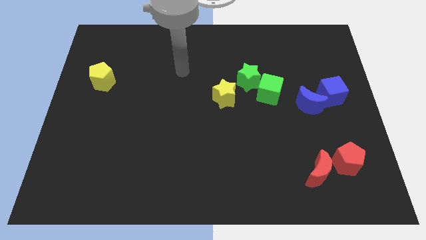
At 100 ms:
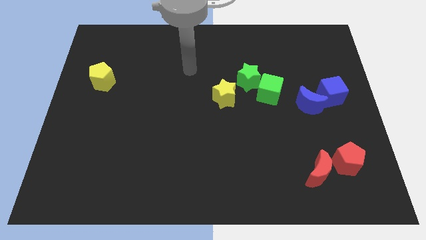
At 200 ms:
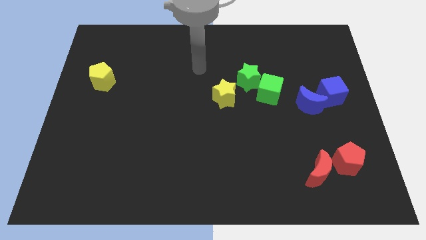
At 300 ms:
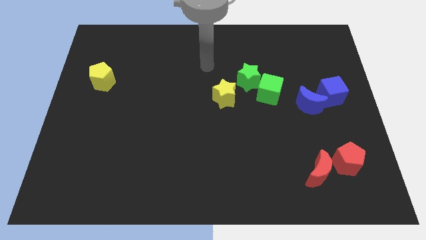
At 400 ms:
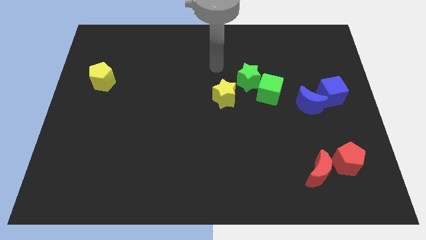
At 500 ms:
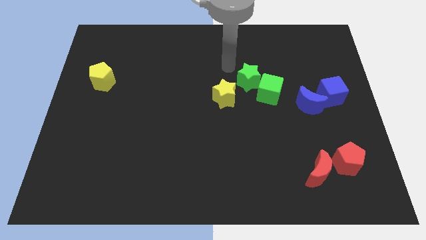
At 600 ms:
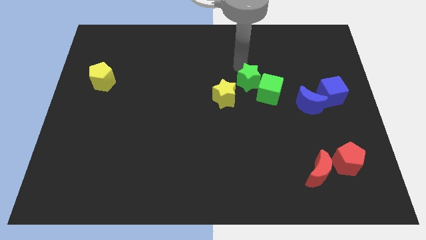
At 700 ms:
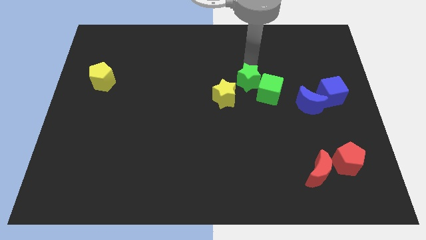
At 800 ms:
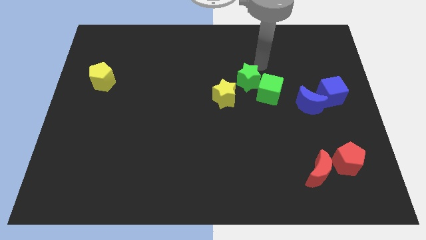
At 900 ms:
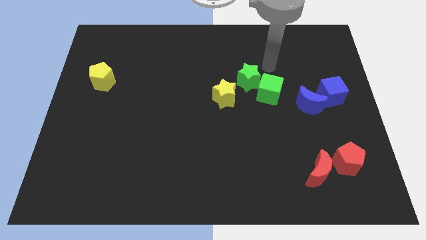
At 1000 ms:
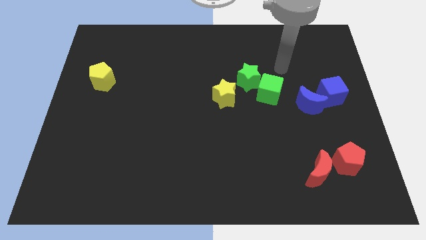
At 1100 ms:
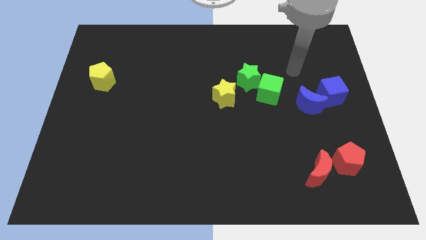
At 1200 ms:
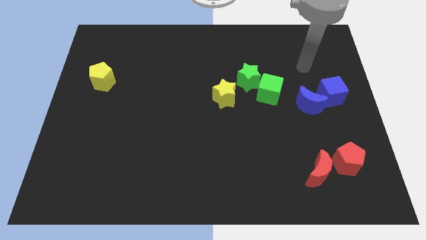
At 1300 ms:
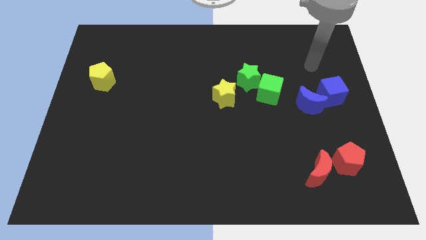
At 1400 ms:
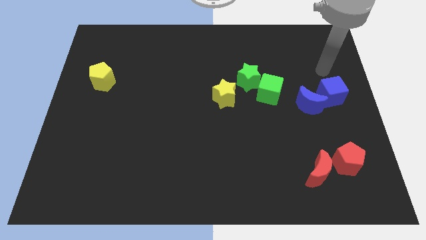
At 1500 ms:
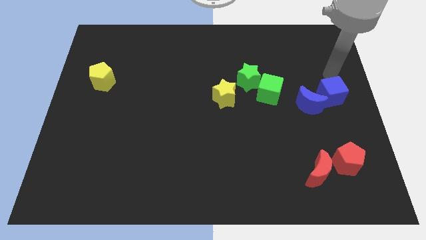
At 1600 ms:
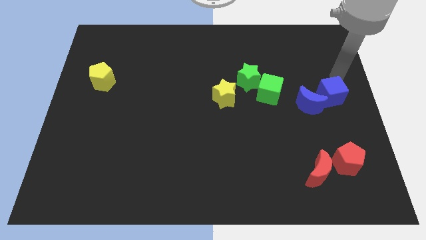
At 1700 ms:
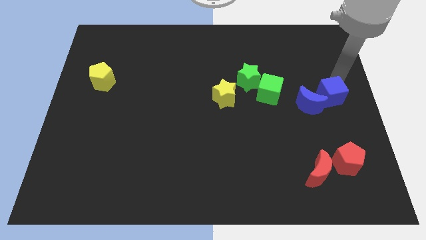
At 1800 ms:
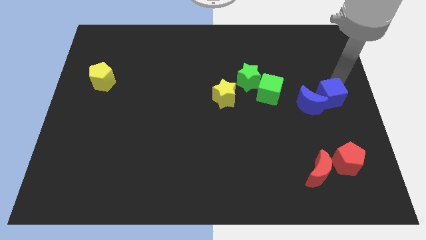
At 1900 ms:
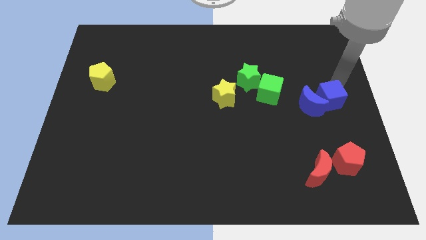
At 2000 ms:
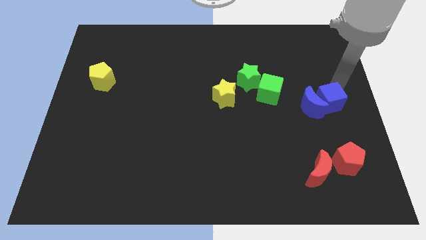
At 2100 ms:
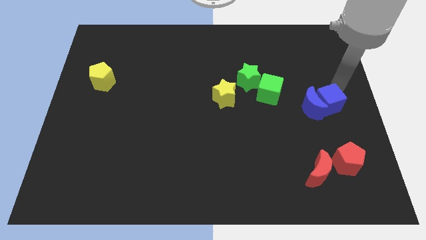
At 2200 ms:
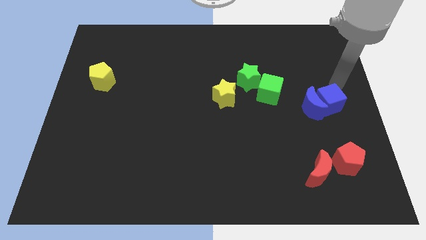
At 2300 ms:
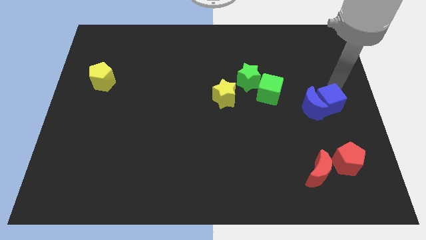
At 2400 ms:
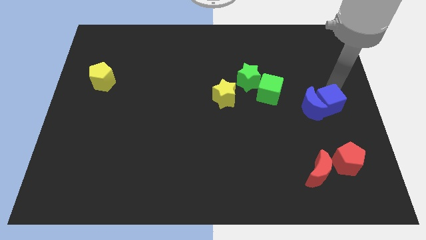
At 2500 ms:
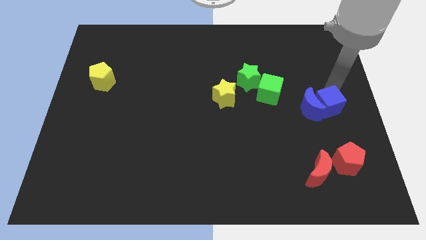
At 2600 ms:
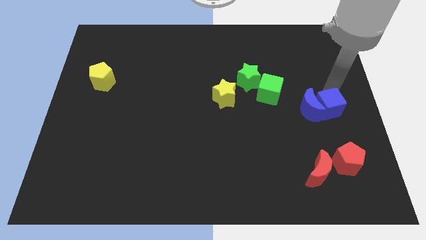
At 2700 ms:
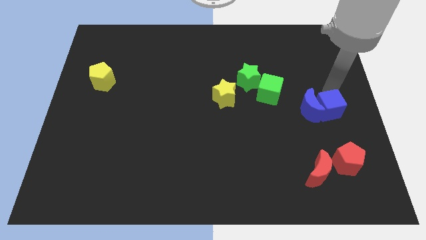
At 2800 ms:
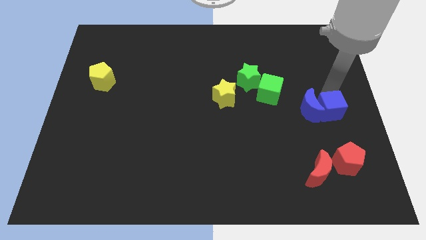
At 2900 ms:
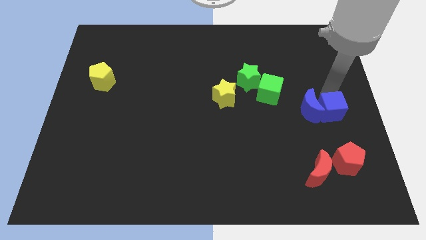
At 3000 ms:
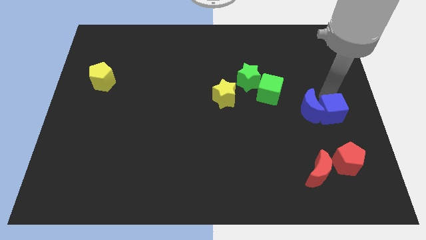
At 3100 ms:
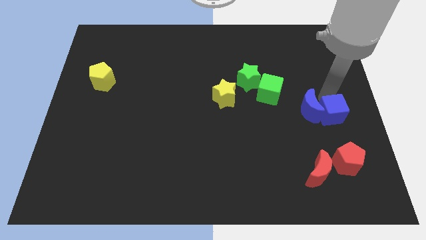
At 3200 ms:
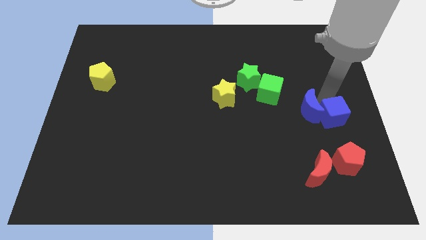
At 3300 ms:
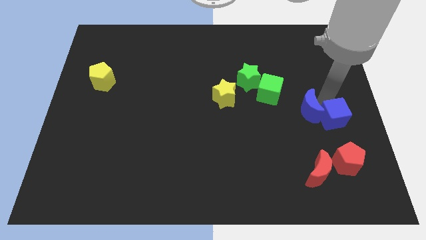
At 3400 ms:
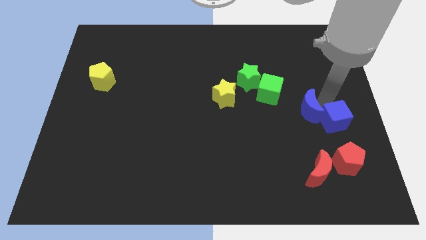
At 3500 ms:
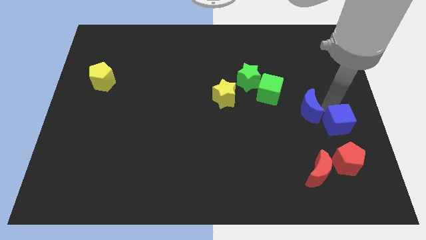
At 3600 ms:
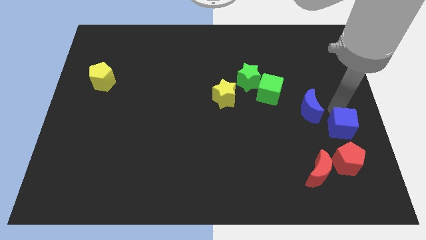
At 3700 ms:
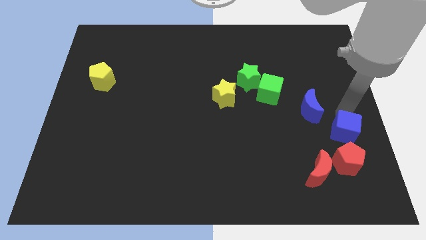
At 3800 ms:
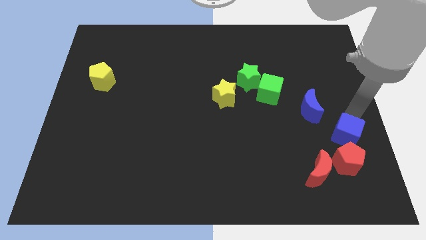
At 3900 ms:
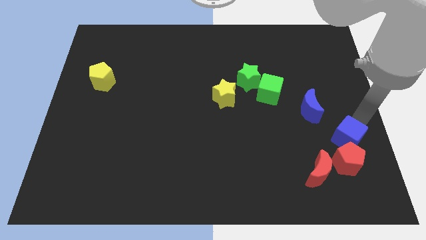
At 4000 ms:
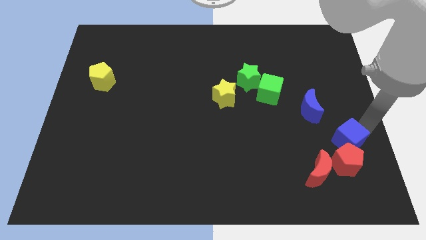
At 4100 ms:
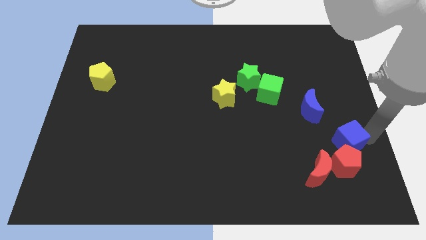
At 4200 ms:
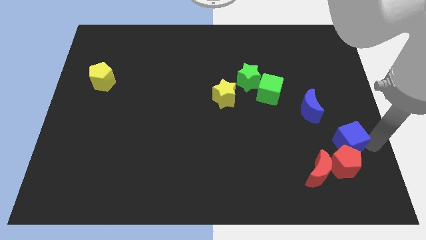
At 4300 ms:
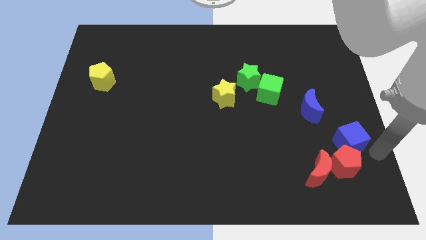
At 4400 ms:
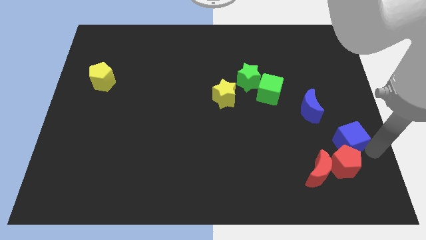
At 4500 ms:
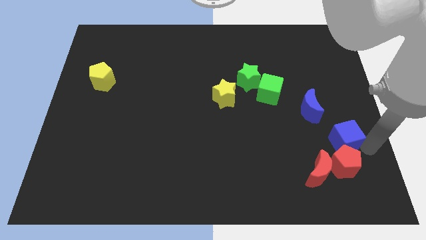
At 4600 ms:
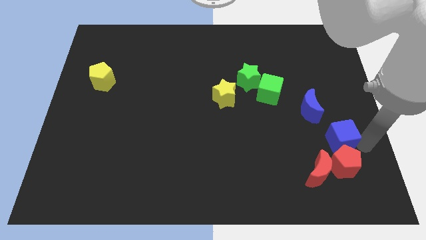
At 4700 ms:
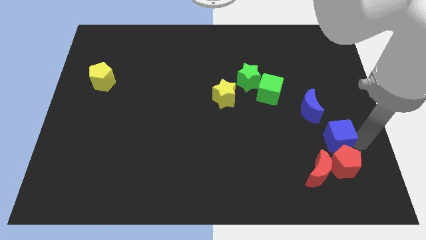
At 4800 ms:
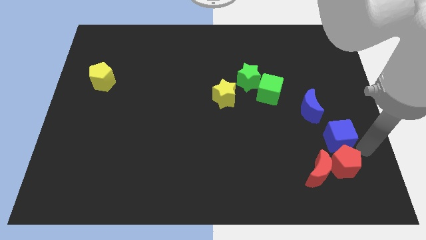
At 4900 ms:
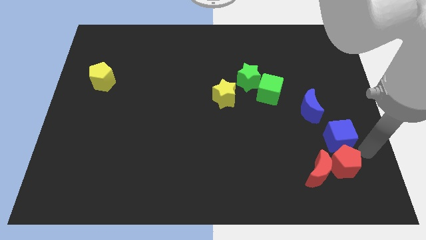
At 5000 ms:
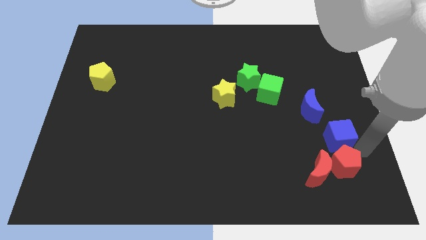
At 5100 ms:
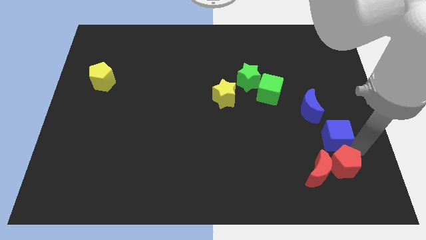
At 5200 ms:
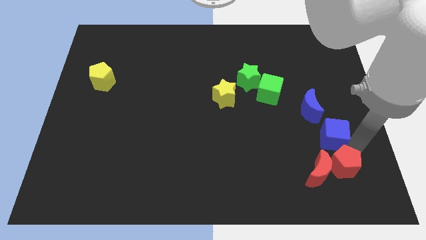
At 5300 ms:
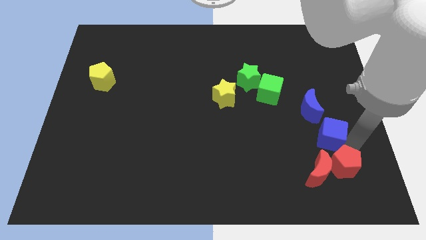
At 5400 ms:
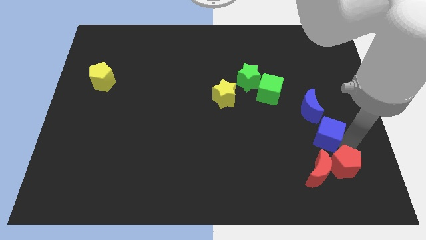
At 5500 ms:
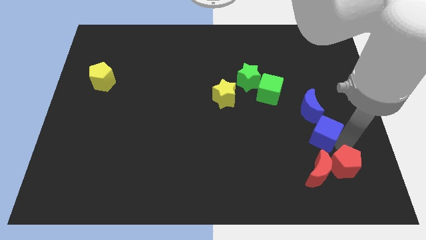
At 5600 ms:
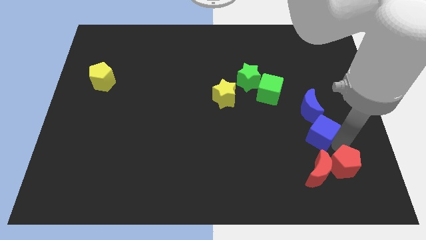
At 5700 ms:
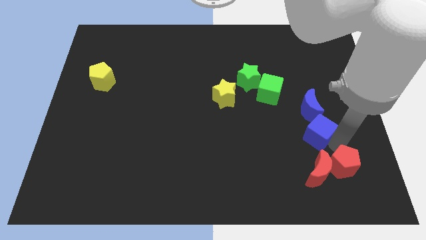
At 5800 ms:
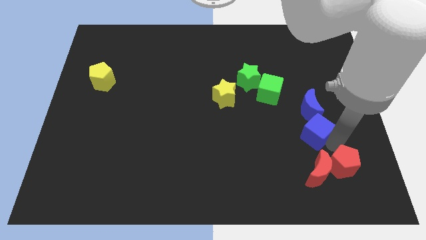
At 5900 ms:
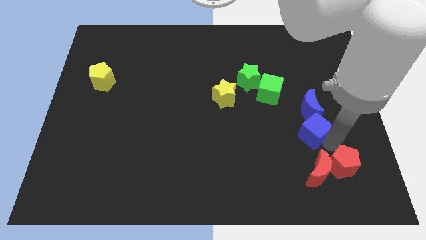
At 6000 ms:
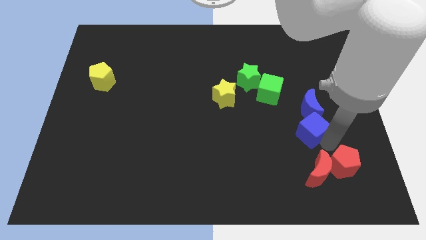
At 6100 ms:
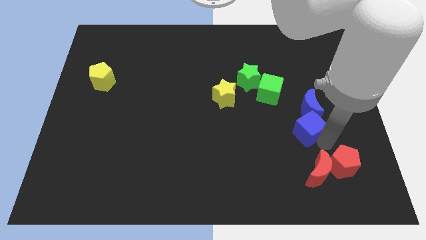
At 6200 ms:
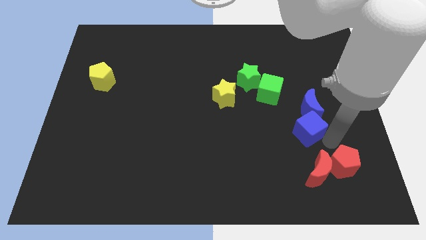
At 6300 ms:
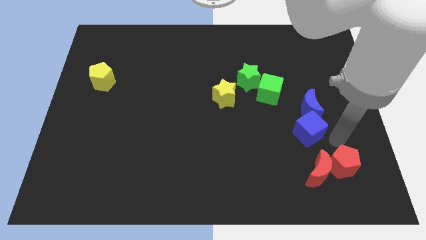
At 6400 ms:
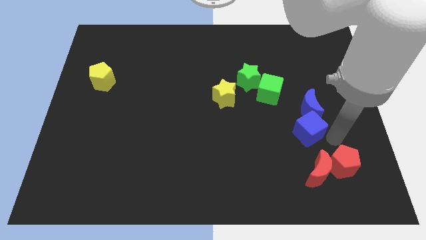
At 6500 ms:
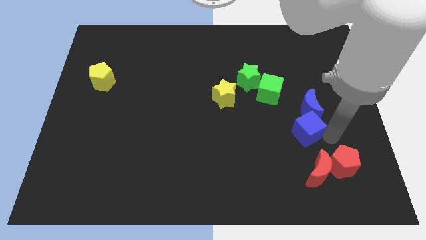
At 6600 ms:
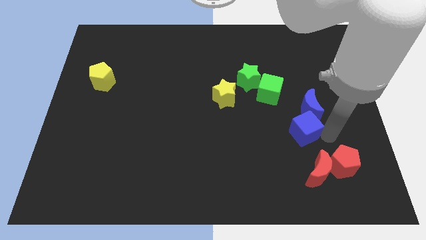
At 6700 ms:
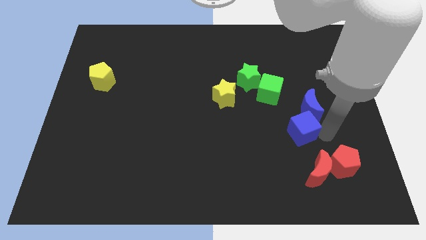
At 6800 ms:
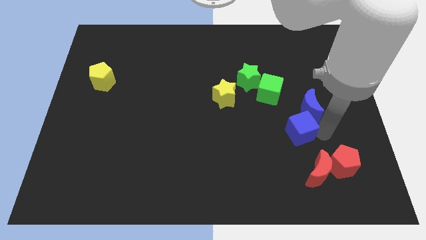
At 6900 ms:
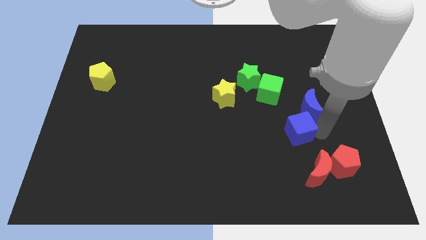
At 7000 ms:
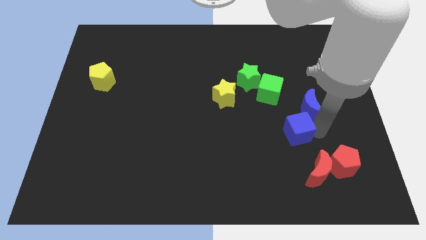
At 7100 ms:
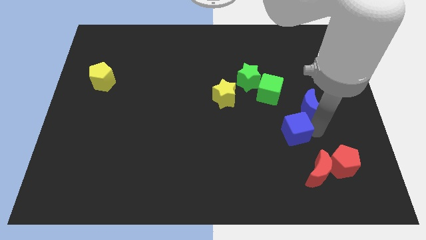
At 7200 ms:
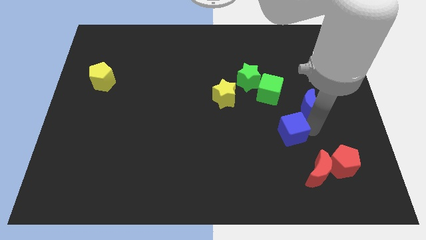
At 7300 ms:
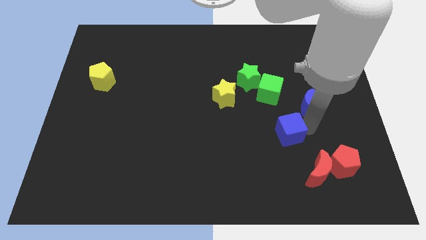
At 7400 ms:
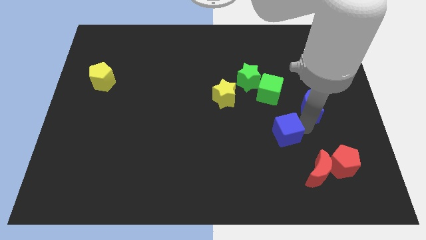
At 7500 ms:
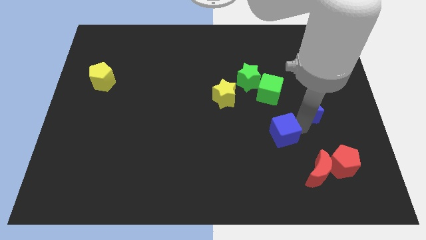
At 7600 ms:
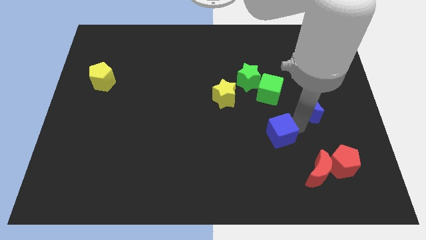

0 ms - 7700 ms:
slide the blue cube to the left a little bit

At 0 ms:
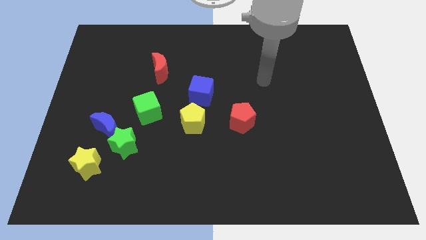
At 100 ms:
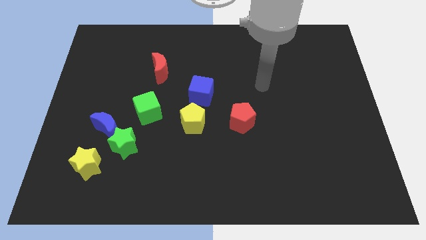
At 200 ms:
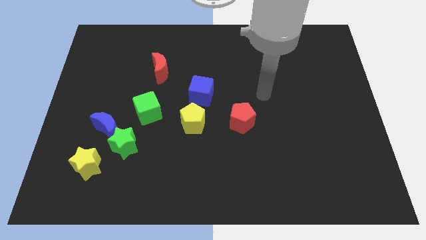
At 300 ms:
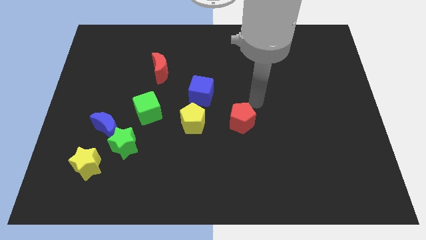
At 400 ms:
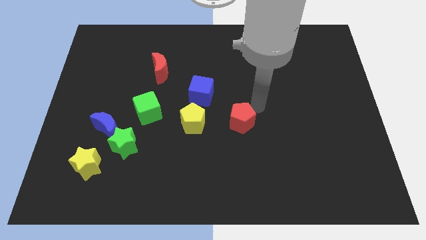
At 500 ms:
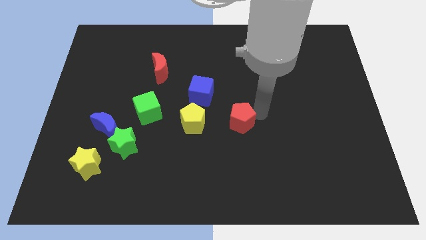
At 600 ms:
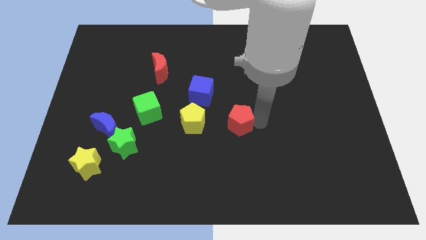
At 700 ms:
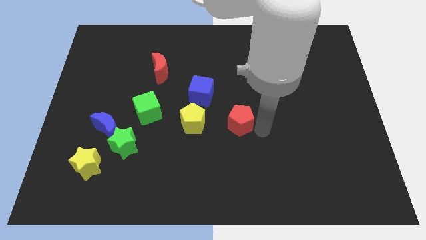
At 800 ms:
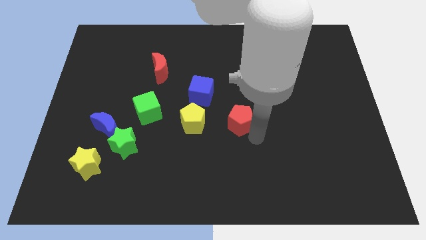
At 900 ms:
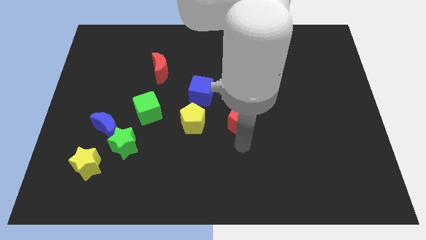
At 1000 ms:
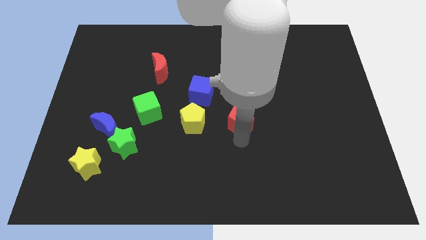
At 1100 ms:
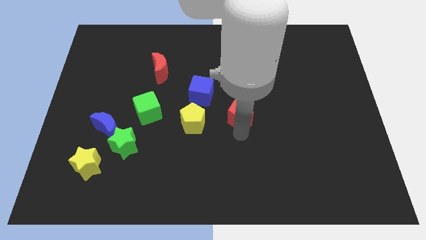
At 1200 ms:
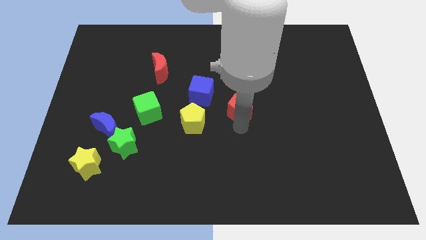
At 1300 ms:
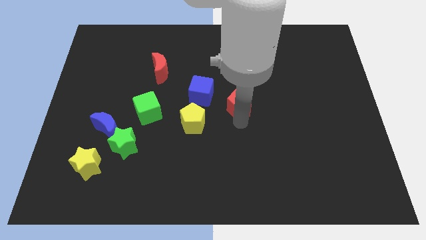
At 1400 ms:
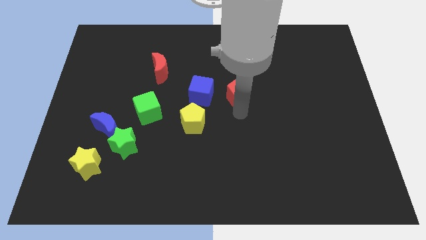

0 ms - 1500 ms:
slide the red pentagon up a little bit
